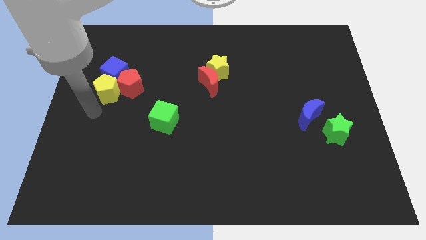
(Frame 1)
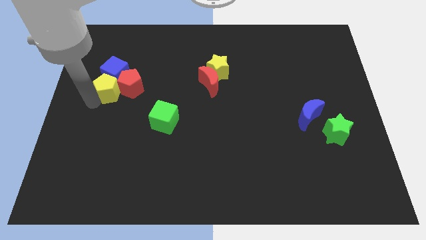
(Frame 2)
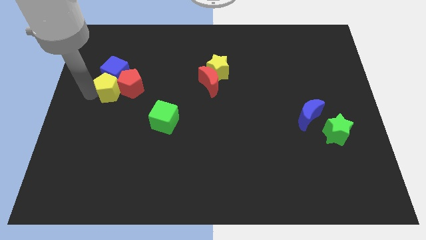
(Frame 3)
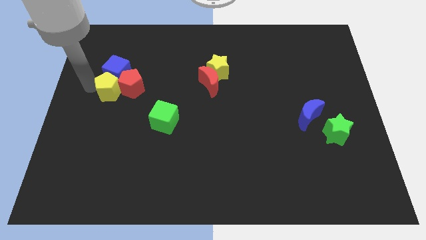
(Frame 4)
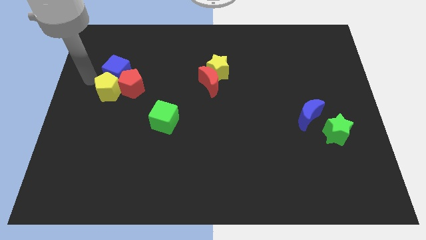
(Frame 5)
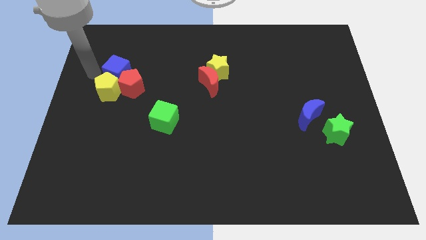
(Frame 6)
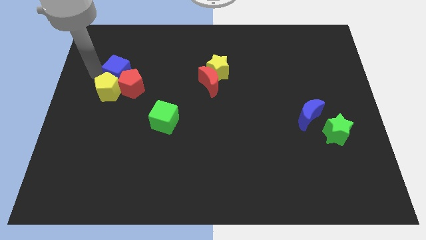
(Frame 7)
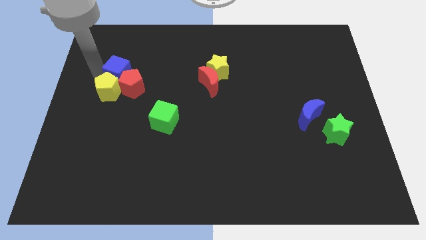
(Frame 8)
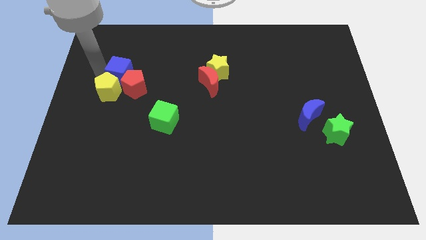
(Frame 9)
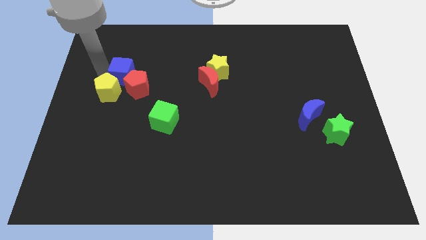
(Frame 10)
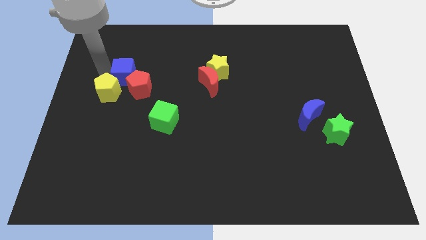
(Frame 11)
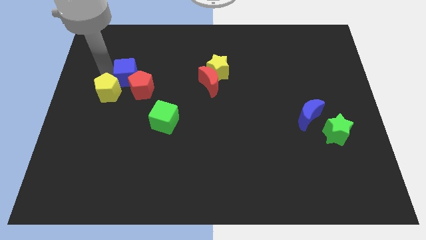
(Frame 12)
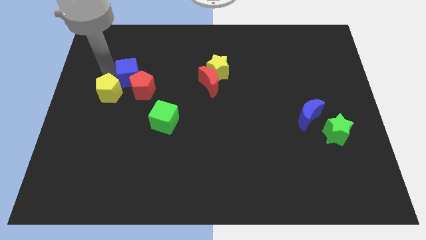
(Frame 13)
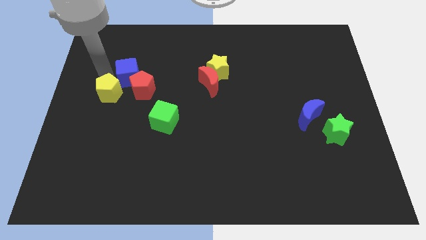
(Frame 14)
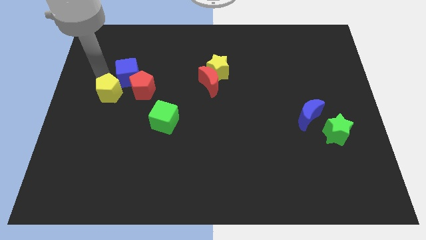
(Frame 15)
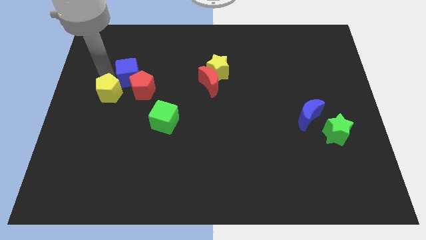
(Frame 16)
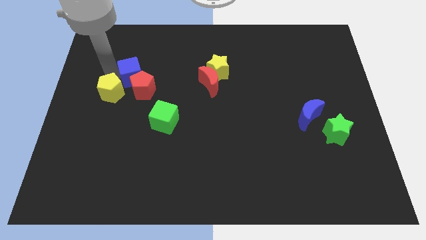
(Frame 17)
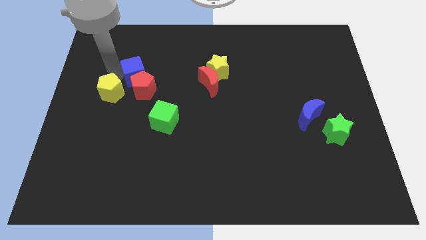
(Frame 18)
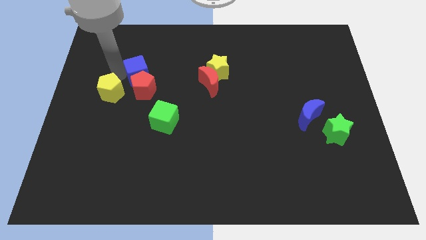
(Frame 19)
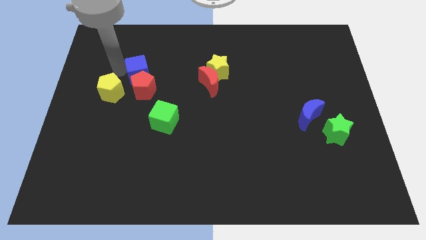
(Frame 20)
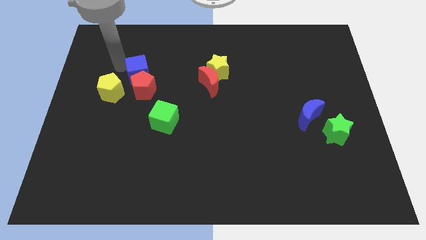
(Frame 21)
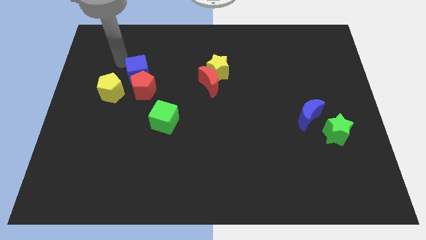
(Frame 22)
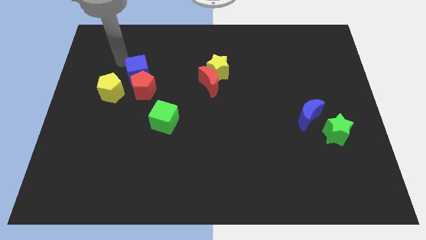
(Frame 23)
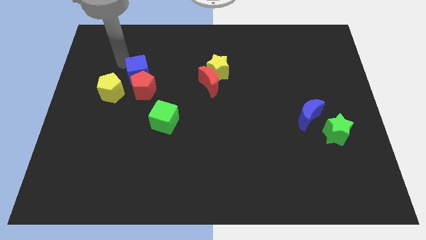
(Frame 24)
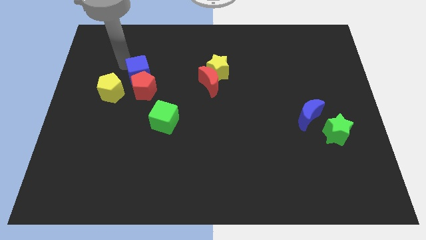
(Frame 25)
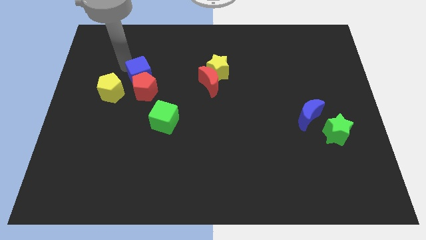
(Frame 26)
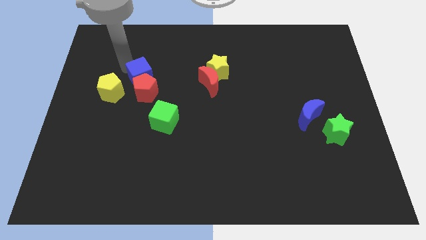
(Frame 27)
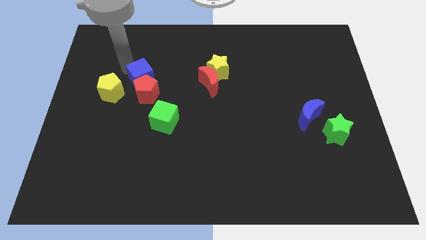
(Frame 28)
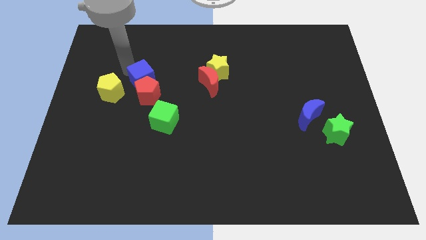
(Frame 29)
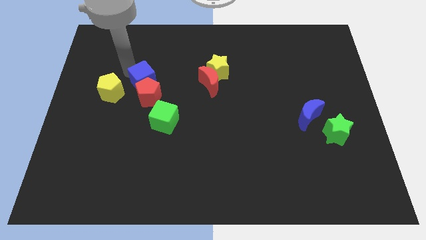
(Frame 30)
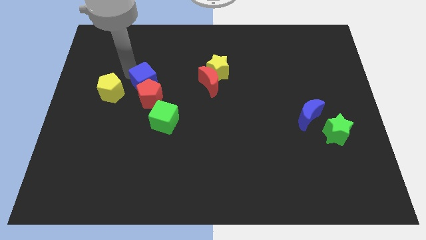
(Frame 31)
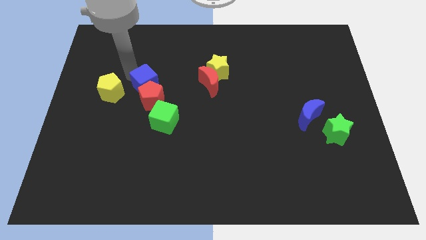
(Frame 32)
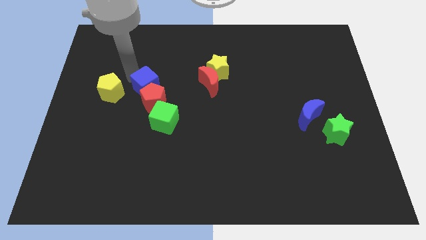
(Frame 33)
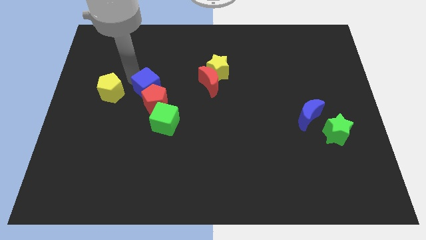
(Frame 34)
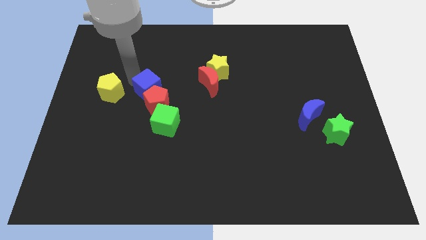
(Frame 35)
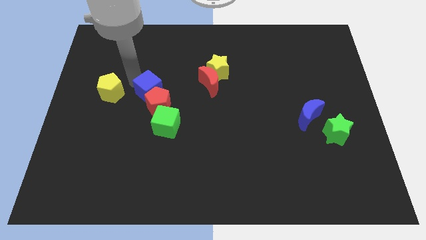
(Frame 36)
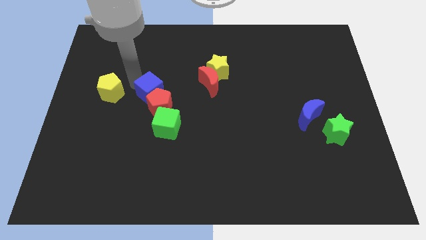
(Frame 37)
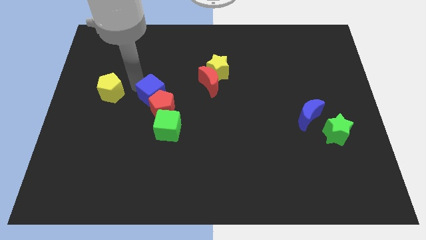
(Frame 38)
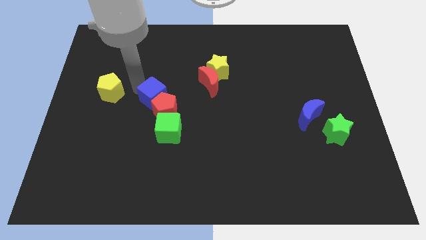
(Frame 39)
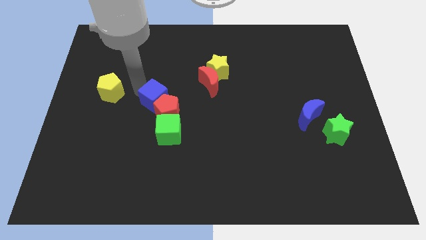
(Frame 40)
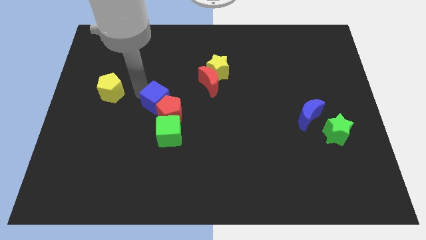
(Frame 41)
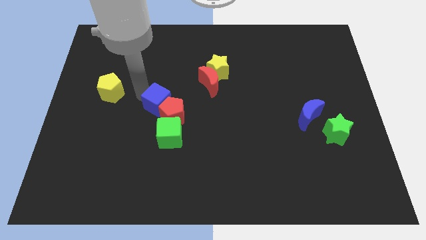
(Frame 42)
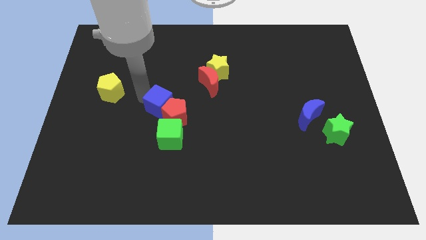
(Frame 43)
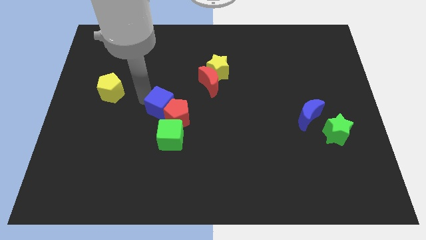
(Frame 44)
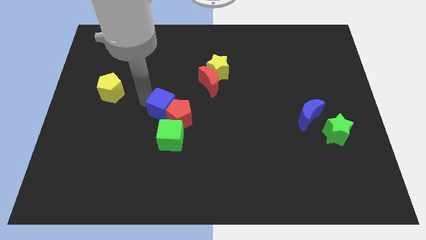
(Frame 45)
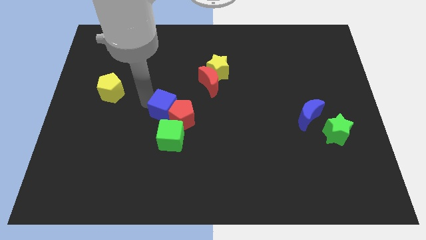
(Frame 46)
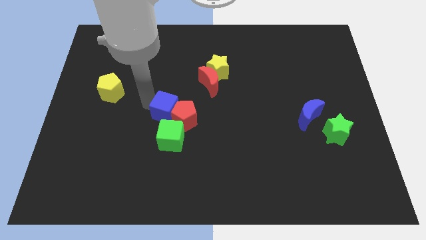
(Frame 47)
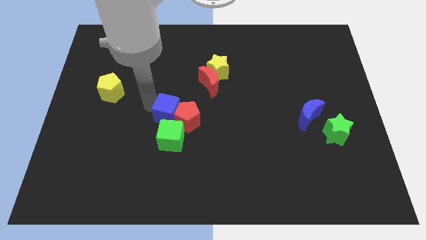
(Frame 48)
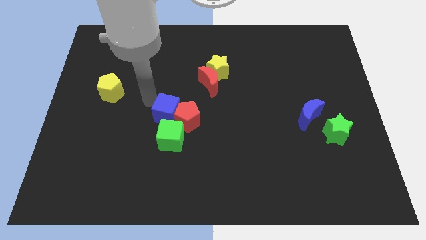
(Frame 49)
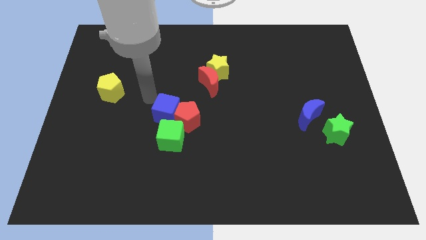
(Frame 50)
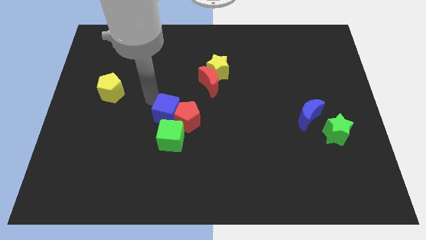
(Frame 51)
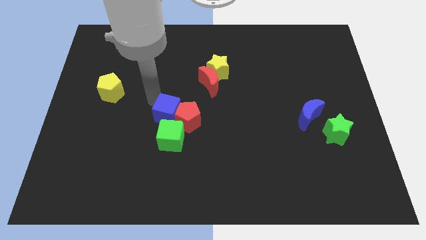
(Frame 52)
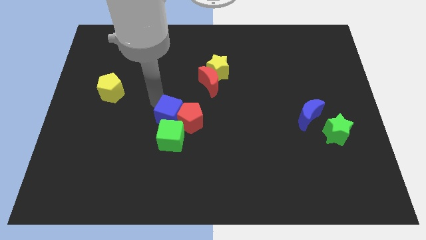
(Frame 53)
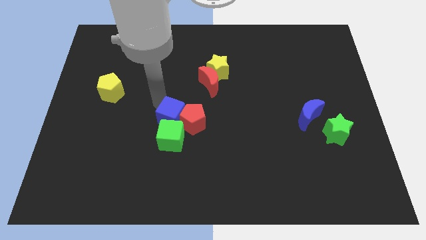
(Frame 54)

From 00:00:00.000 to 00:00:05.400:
move the blue cube diagonally downwards and right

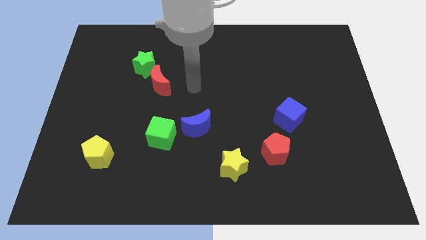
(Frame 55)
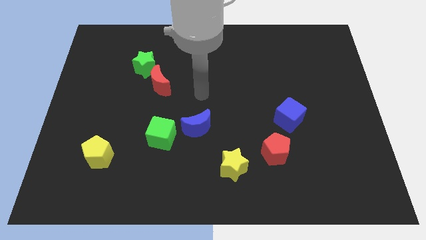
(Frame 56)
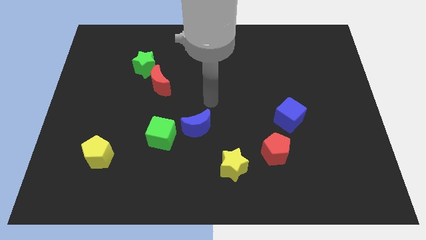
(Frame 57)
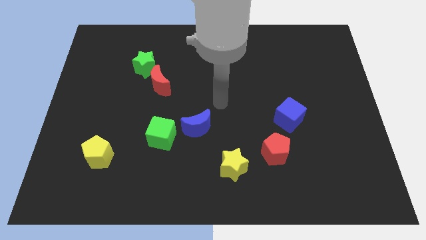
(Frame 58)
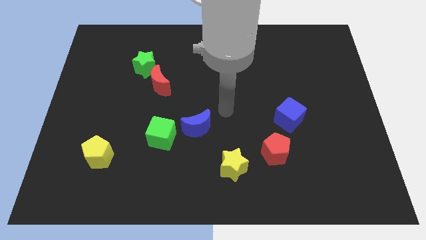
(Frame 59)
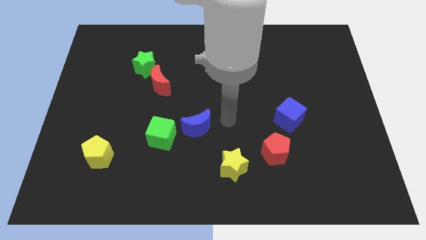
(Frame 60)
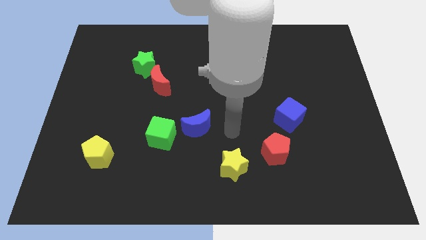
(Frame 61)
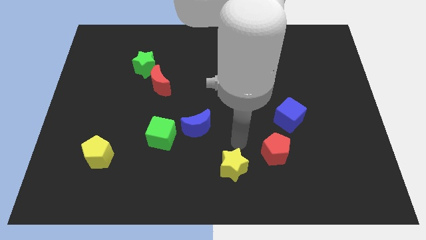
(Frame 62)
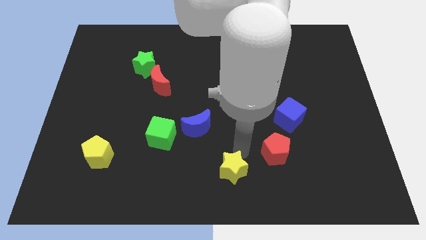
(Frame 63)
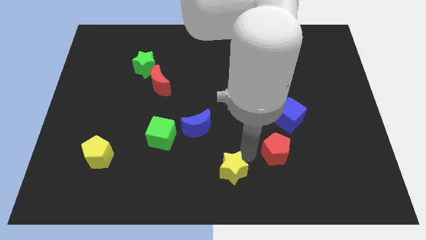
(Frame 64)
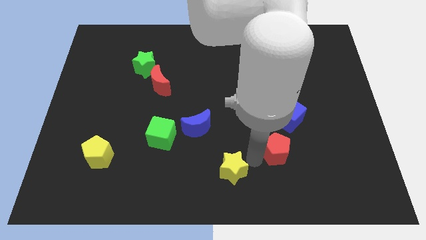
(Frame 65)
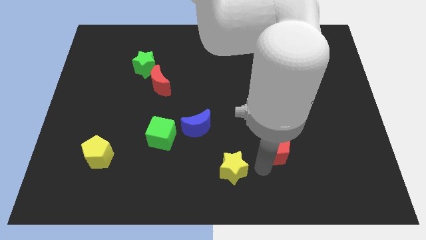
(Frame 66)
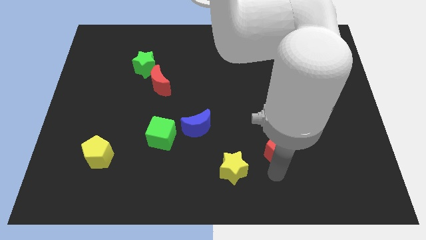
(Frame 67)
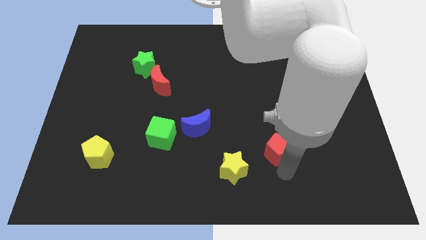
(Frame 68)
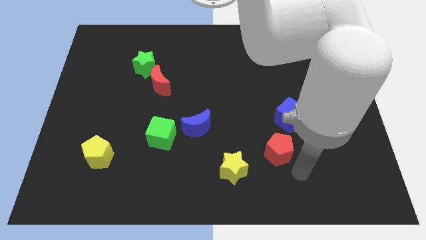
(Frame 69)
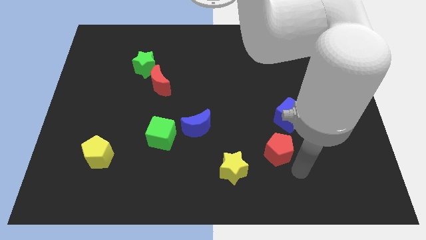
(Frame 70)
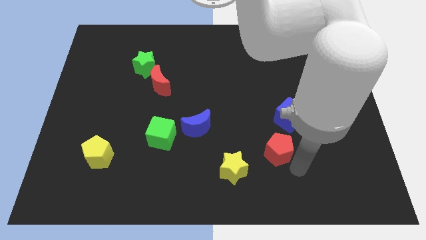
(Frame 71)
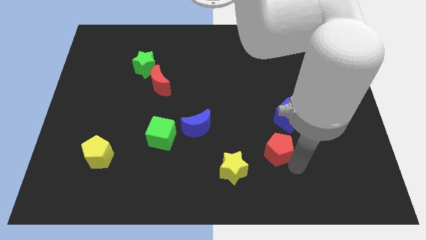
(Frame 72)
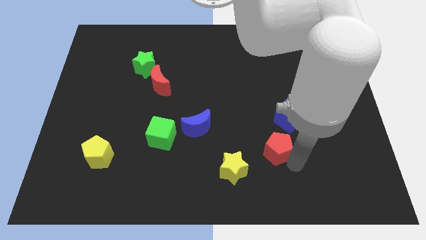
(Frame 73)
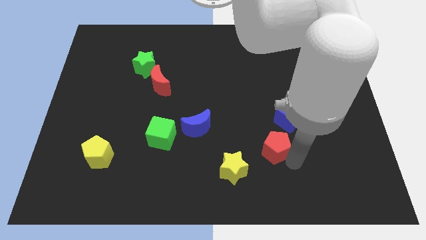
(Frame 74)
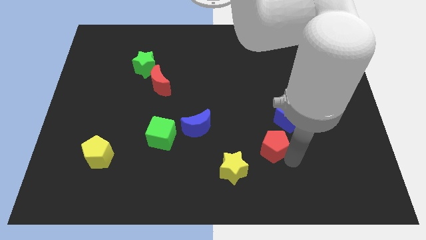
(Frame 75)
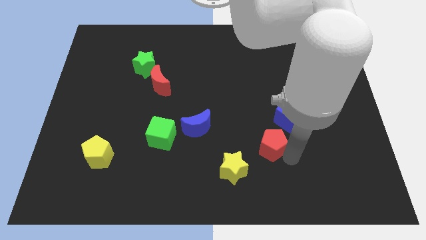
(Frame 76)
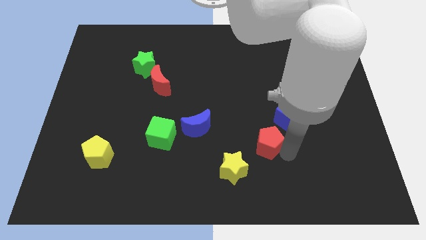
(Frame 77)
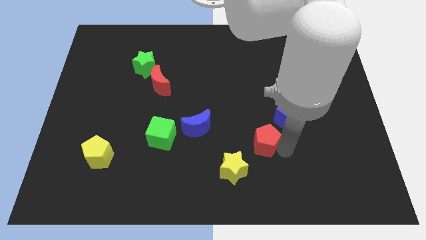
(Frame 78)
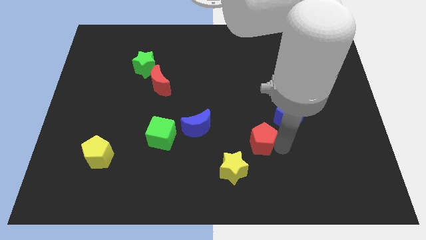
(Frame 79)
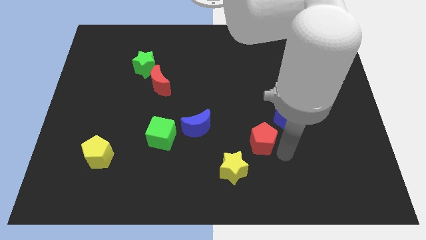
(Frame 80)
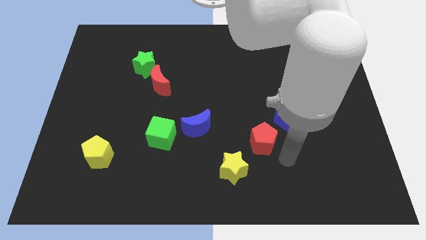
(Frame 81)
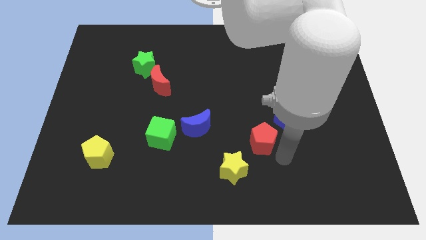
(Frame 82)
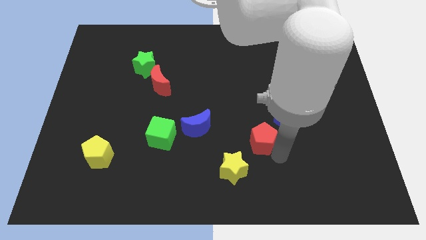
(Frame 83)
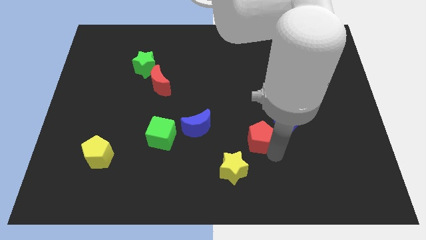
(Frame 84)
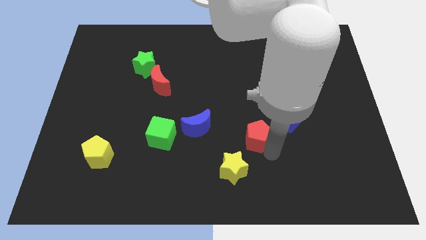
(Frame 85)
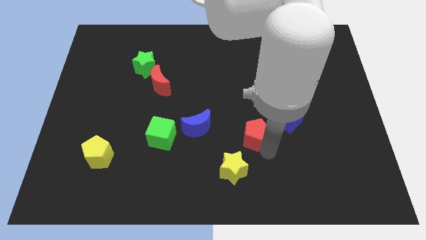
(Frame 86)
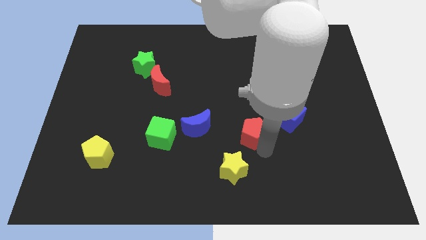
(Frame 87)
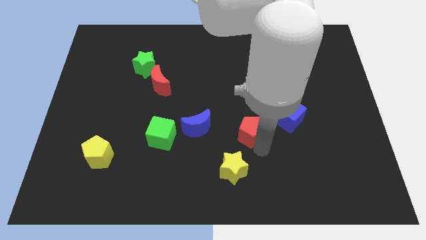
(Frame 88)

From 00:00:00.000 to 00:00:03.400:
move the red pentagon slightly upwards and then left
